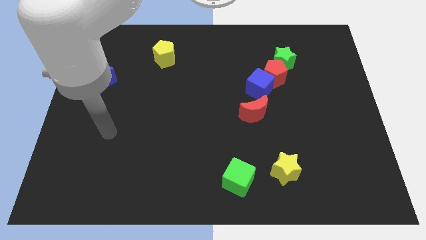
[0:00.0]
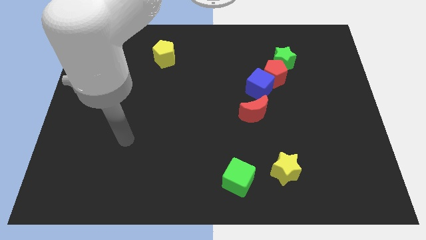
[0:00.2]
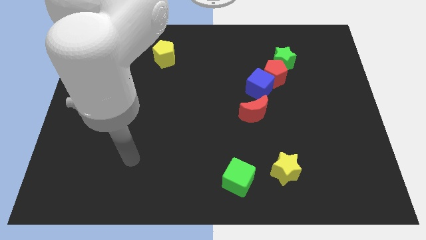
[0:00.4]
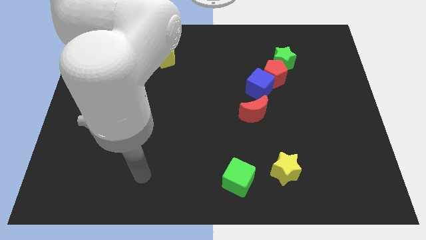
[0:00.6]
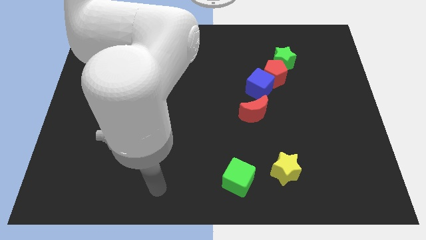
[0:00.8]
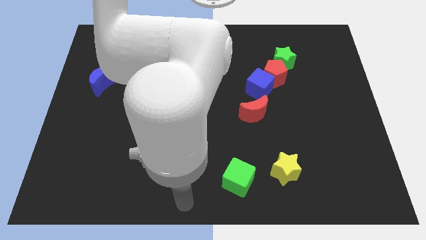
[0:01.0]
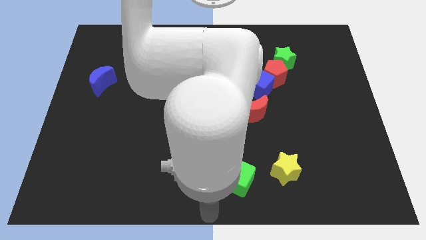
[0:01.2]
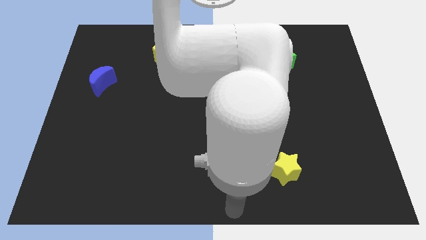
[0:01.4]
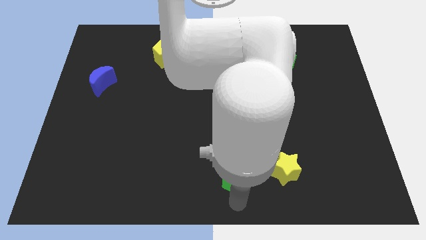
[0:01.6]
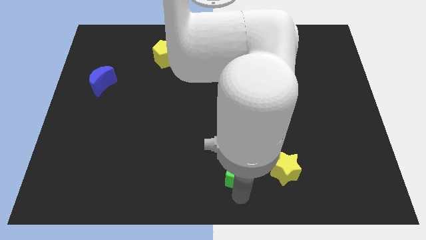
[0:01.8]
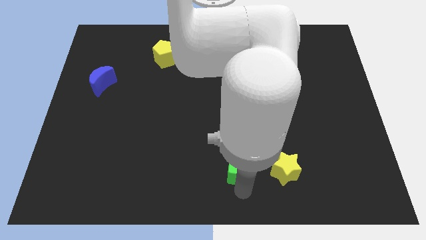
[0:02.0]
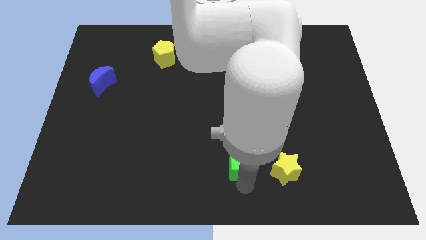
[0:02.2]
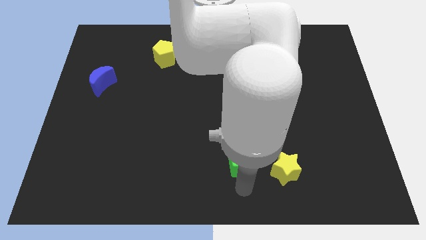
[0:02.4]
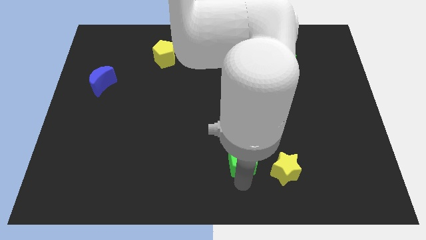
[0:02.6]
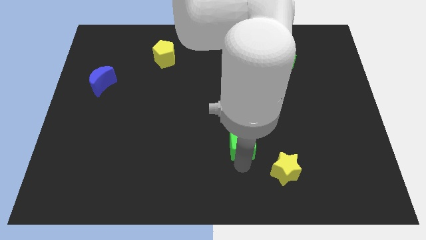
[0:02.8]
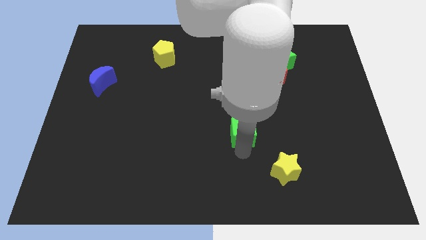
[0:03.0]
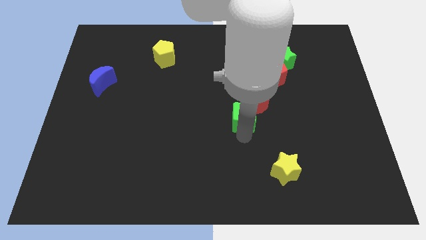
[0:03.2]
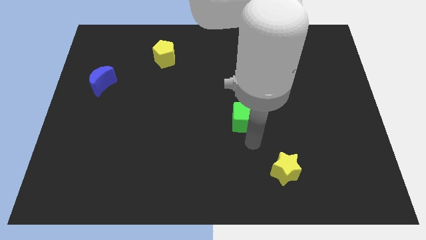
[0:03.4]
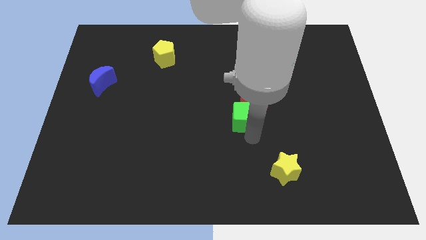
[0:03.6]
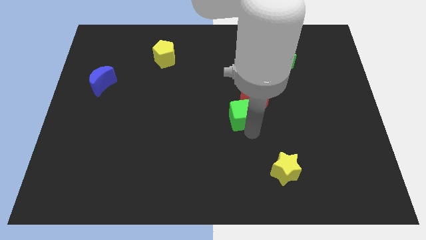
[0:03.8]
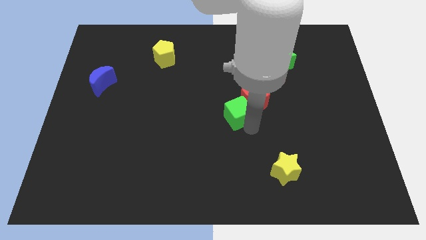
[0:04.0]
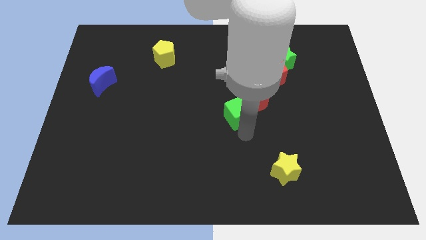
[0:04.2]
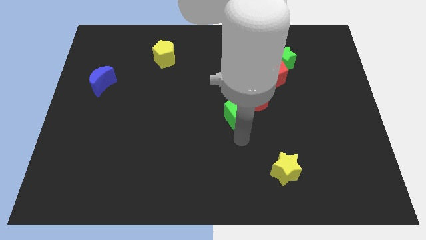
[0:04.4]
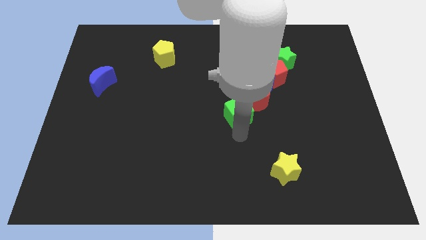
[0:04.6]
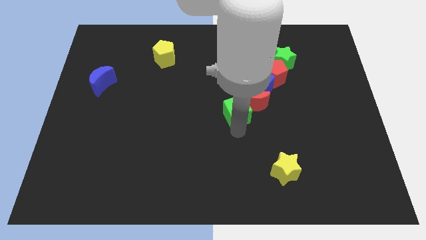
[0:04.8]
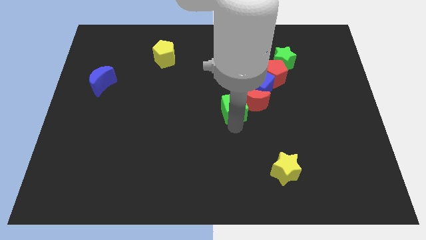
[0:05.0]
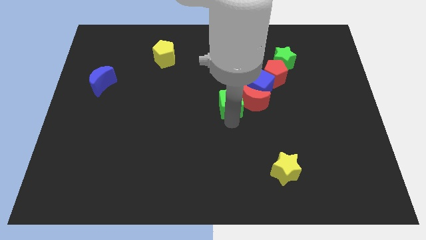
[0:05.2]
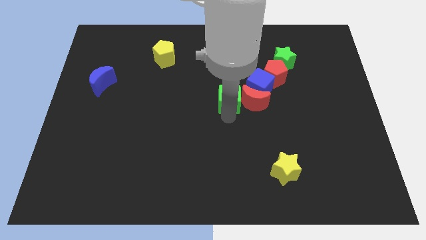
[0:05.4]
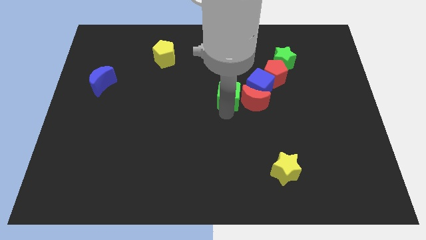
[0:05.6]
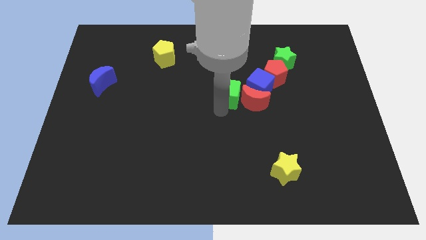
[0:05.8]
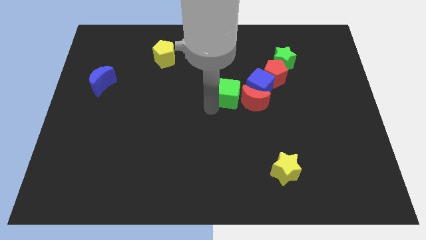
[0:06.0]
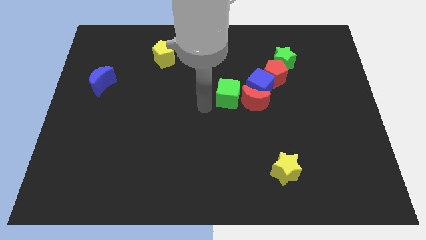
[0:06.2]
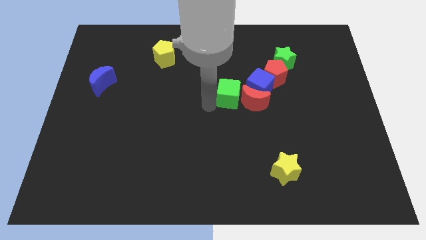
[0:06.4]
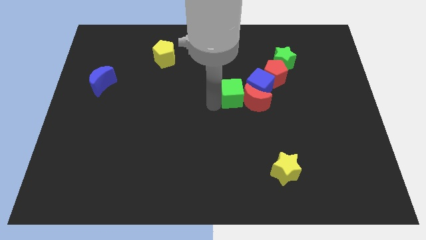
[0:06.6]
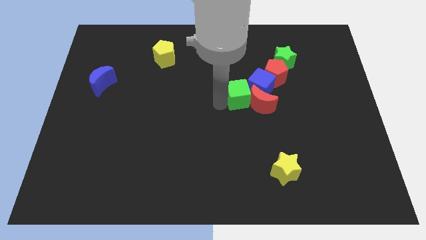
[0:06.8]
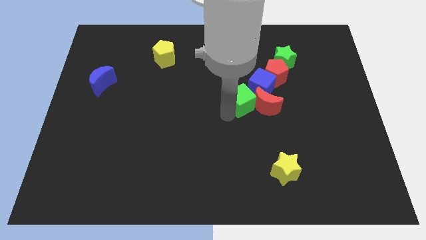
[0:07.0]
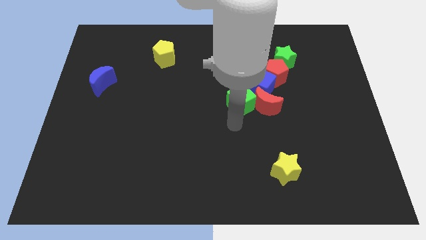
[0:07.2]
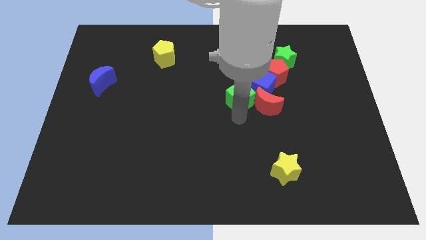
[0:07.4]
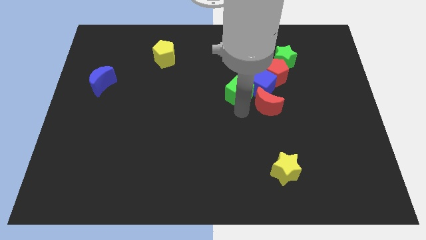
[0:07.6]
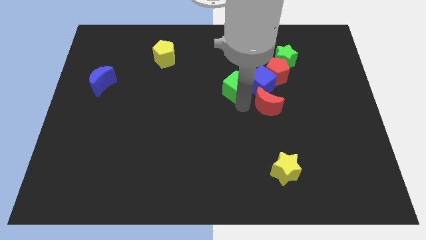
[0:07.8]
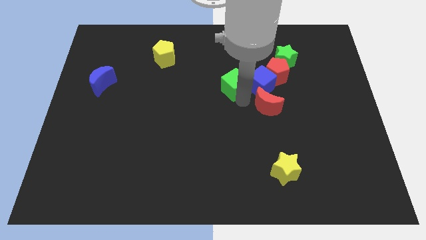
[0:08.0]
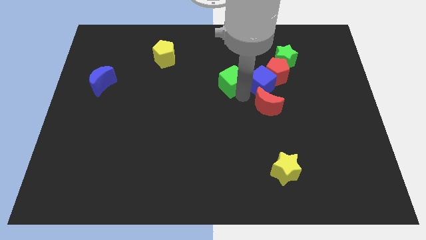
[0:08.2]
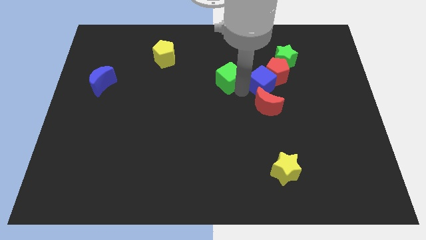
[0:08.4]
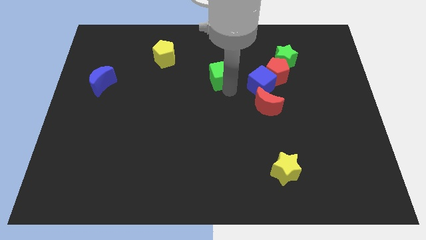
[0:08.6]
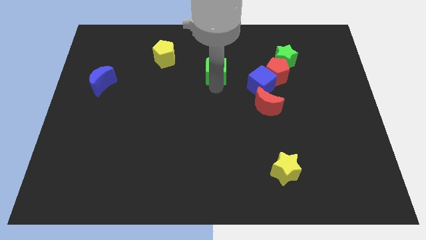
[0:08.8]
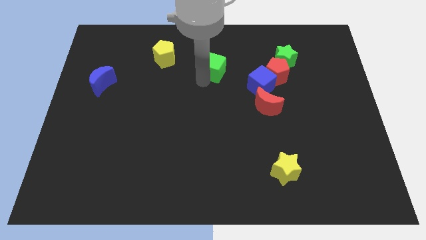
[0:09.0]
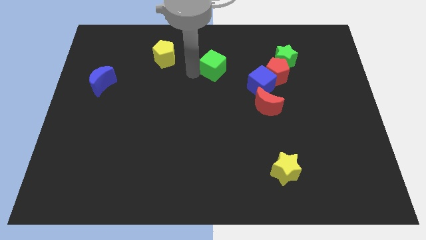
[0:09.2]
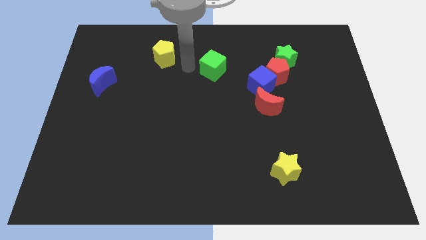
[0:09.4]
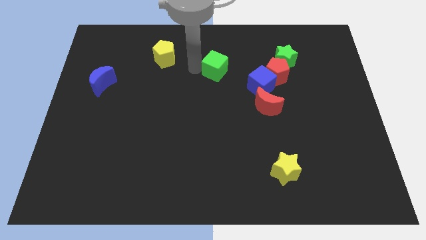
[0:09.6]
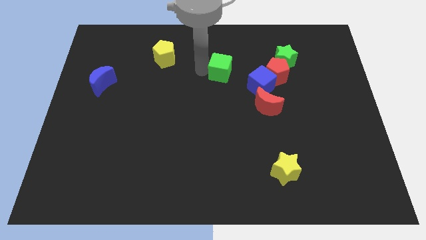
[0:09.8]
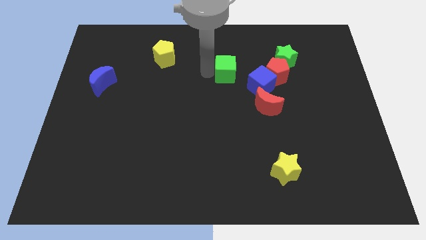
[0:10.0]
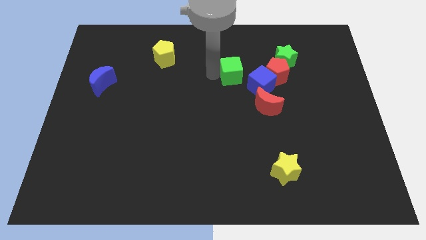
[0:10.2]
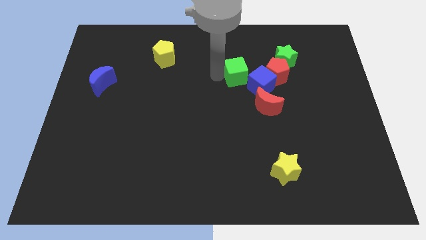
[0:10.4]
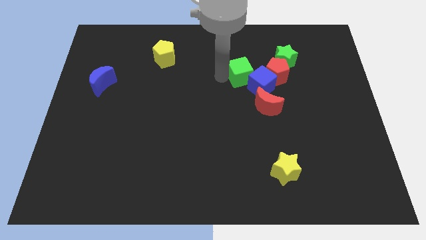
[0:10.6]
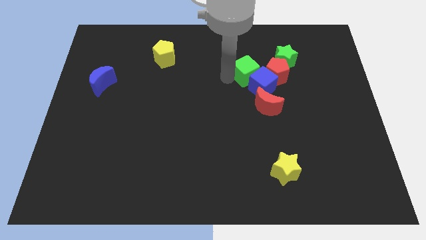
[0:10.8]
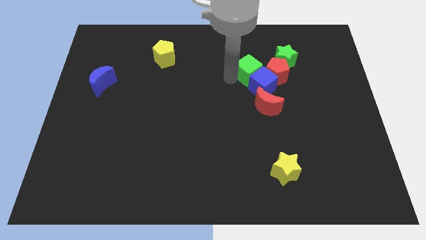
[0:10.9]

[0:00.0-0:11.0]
put the green cube diagonally up and to the left of the red pentagon

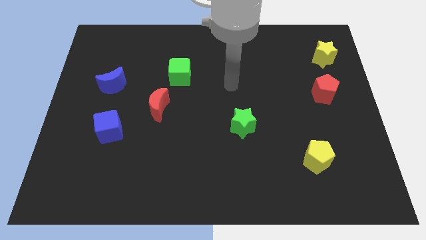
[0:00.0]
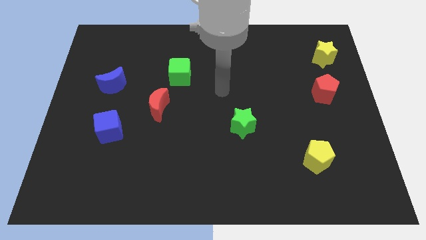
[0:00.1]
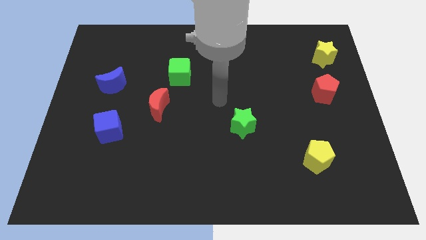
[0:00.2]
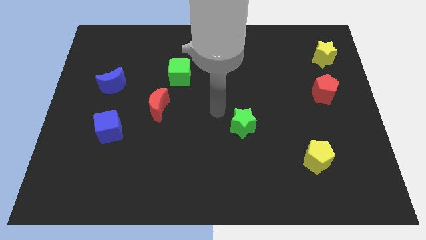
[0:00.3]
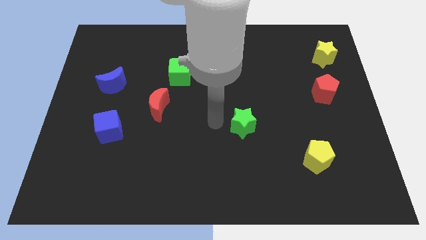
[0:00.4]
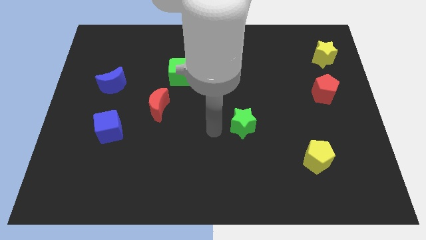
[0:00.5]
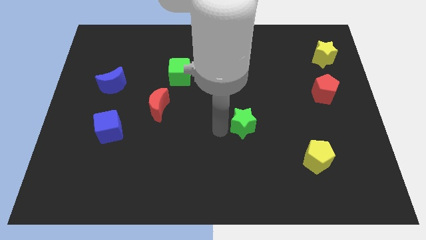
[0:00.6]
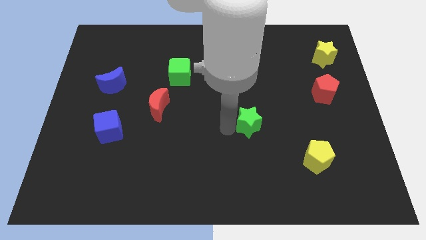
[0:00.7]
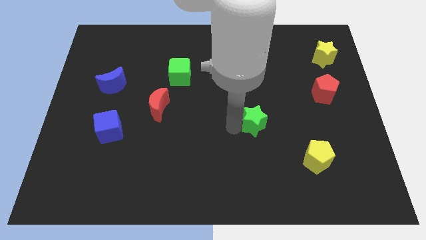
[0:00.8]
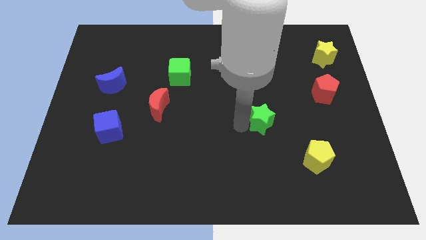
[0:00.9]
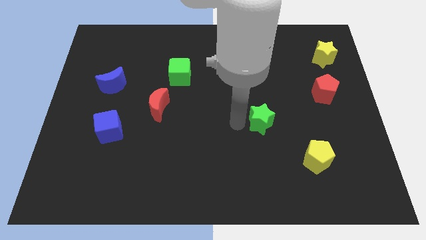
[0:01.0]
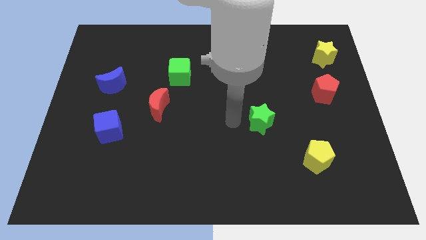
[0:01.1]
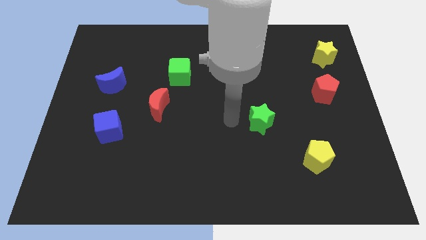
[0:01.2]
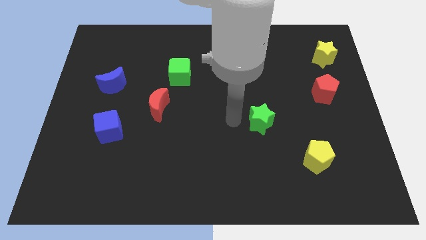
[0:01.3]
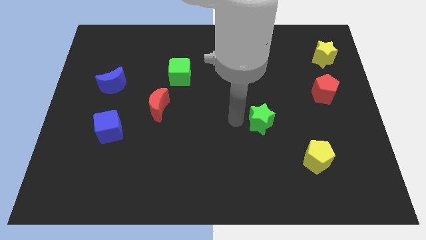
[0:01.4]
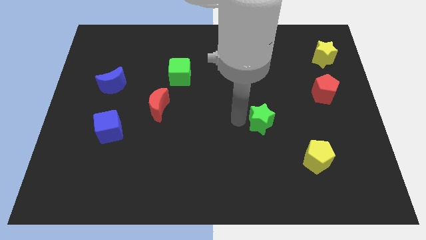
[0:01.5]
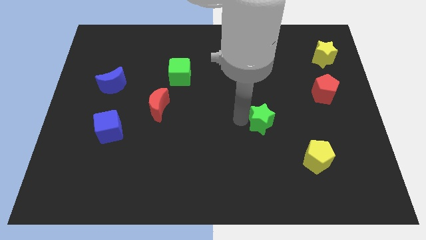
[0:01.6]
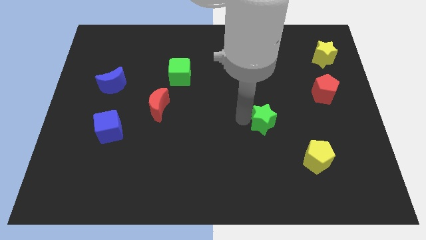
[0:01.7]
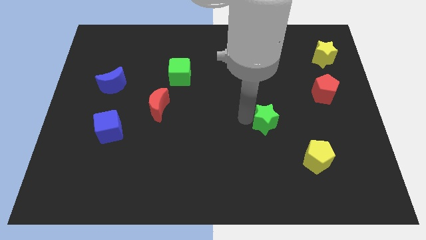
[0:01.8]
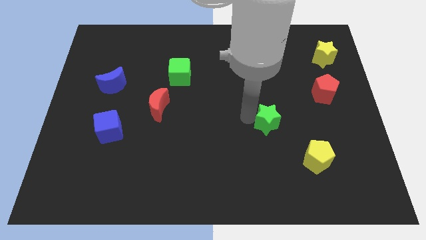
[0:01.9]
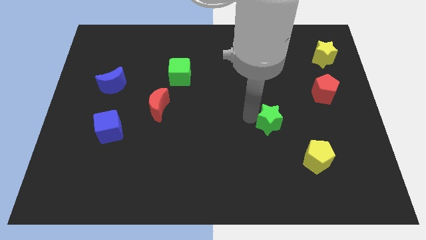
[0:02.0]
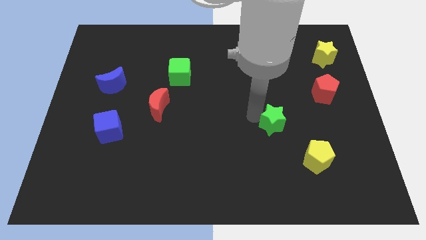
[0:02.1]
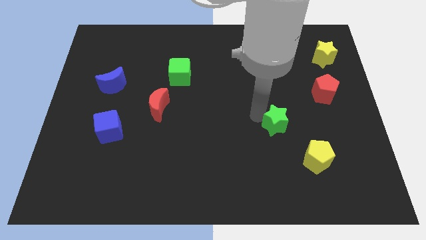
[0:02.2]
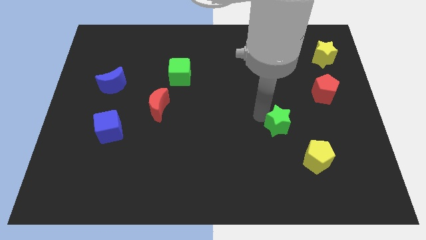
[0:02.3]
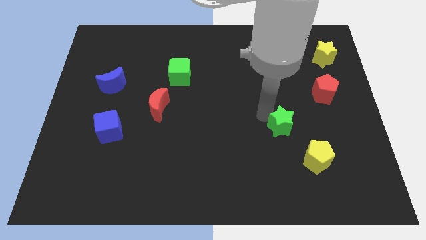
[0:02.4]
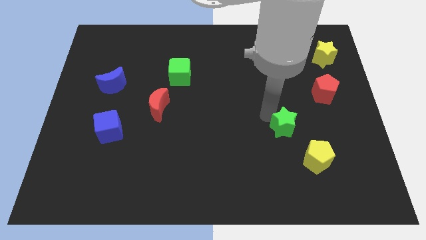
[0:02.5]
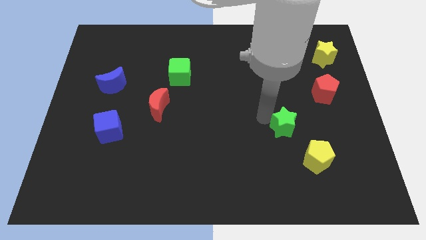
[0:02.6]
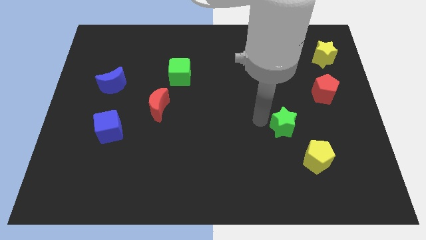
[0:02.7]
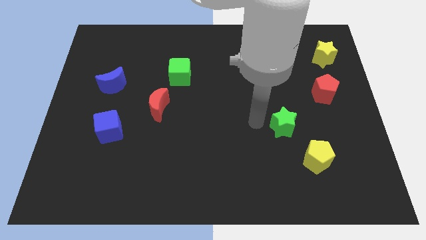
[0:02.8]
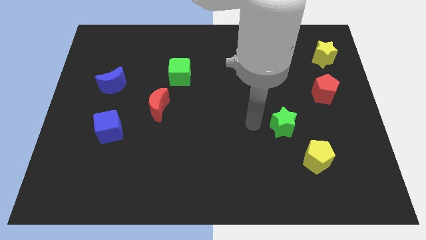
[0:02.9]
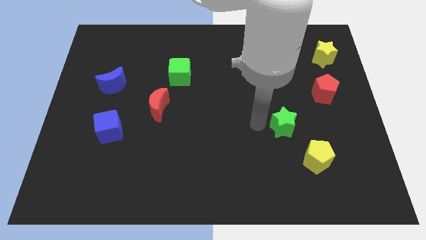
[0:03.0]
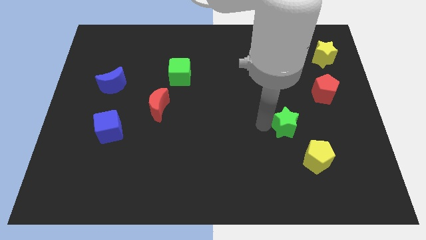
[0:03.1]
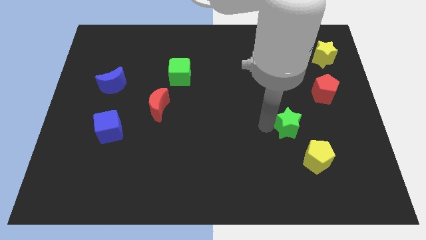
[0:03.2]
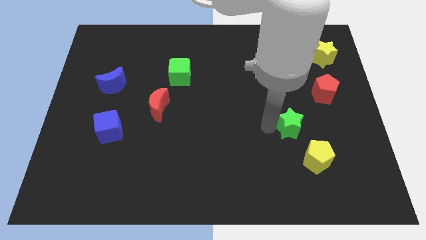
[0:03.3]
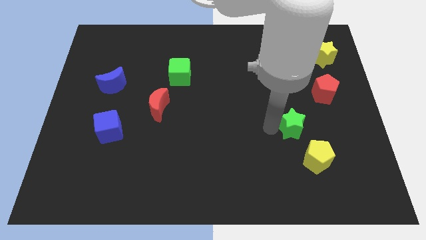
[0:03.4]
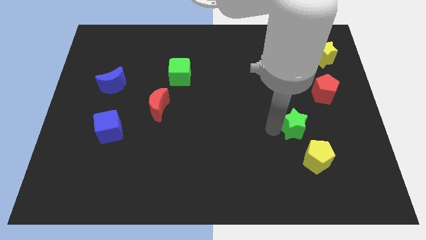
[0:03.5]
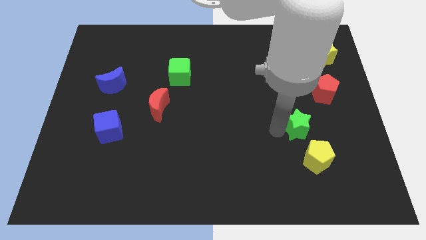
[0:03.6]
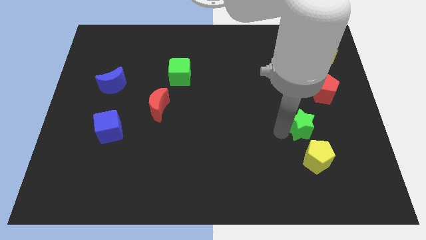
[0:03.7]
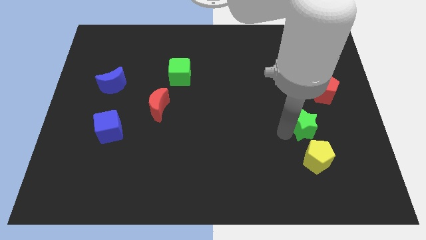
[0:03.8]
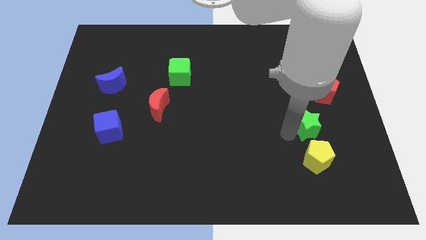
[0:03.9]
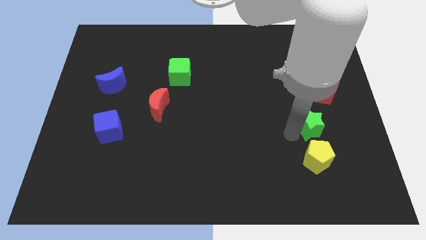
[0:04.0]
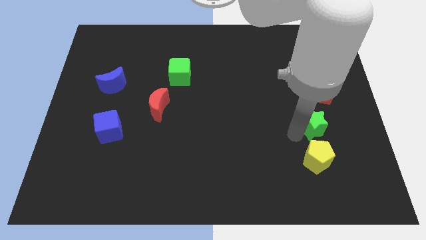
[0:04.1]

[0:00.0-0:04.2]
put the green star to the bottom of the red pentagon
